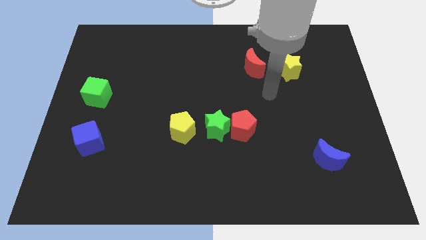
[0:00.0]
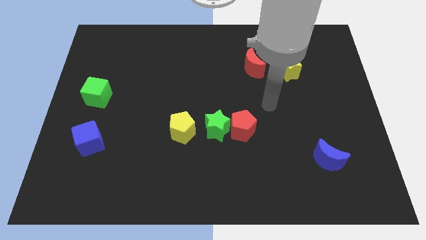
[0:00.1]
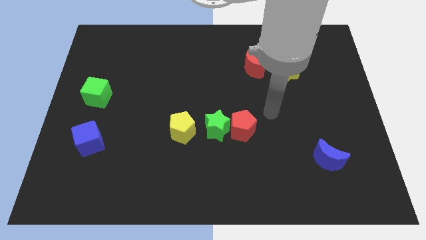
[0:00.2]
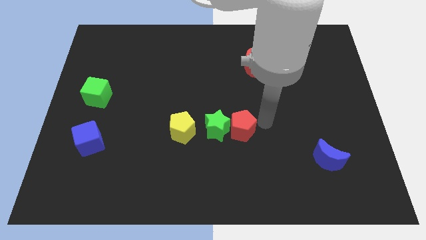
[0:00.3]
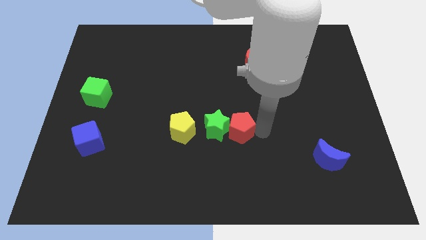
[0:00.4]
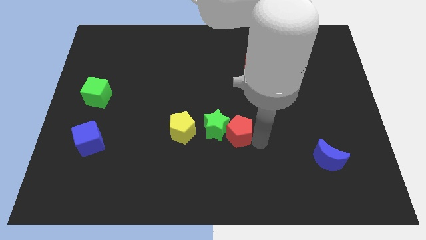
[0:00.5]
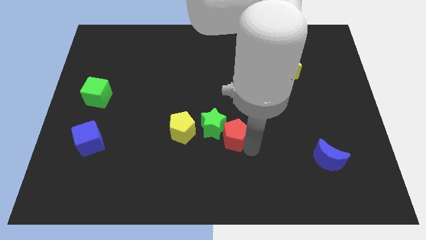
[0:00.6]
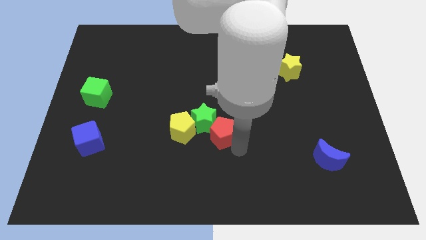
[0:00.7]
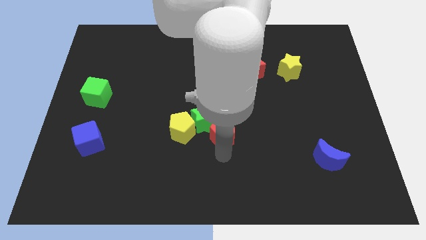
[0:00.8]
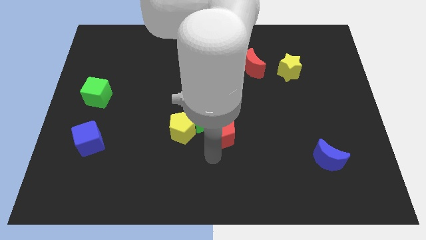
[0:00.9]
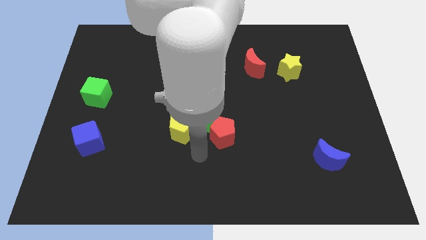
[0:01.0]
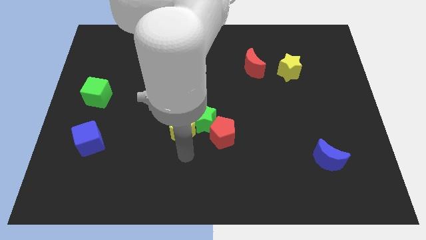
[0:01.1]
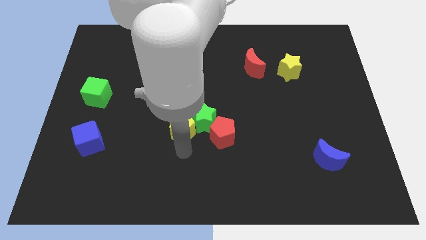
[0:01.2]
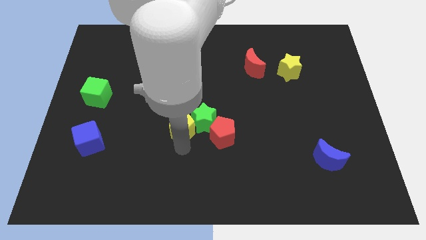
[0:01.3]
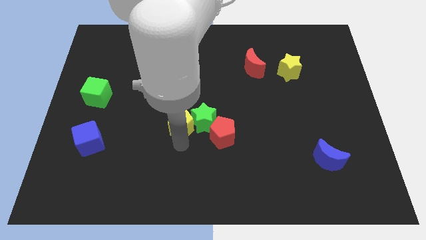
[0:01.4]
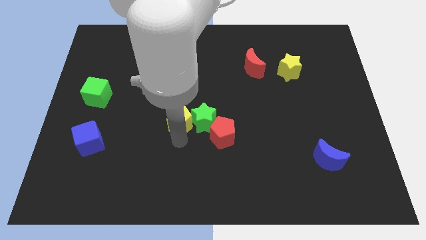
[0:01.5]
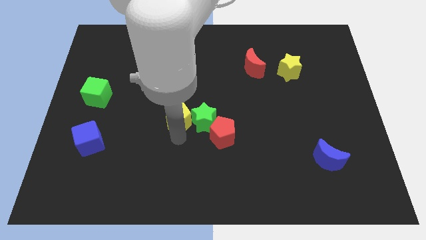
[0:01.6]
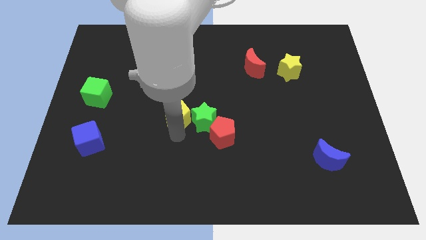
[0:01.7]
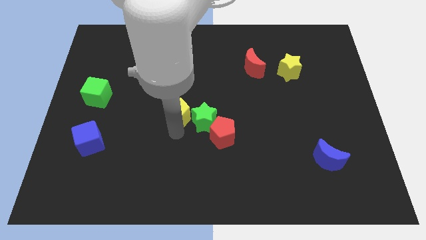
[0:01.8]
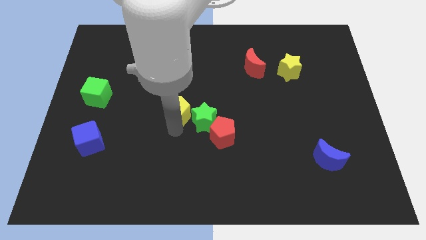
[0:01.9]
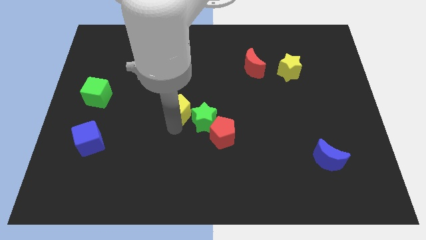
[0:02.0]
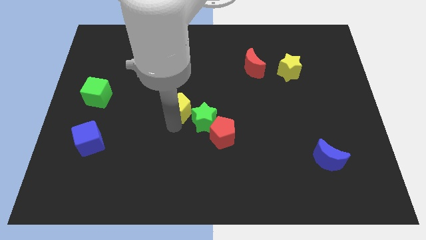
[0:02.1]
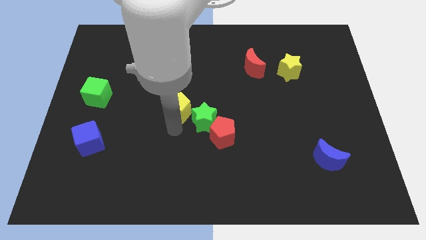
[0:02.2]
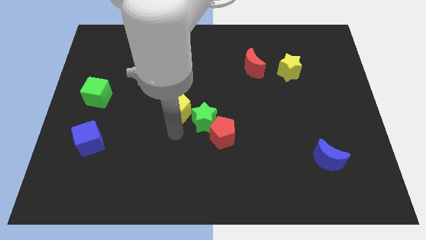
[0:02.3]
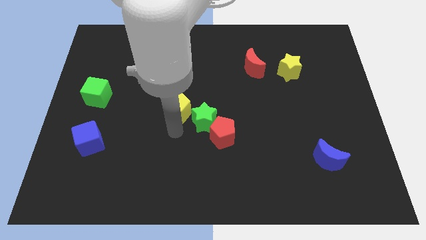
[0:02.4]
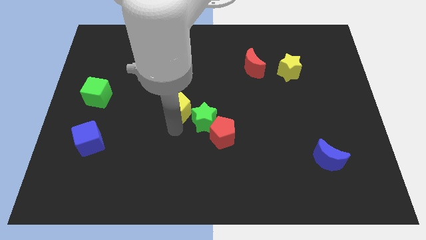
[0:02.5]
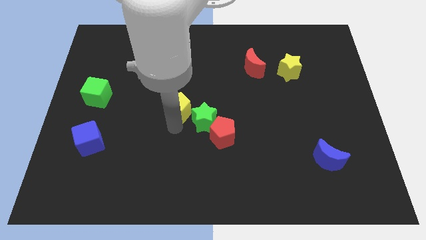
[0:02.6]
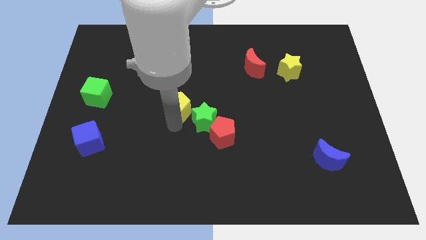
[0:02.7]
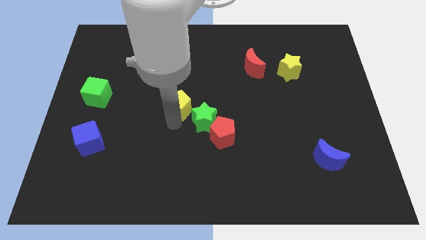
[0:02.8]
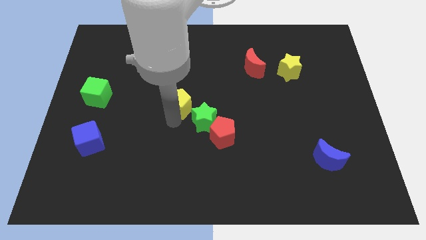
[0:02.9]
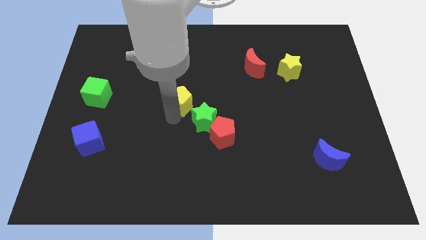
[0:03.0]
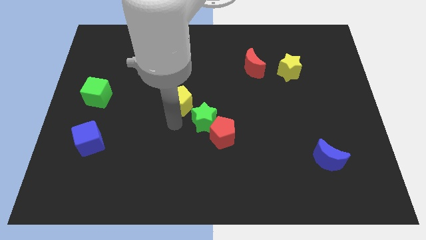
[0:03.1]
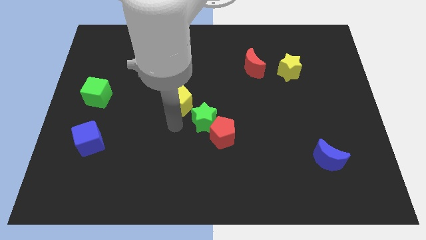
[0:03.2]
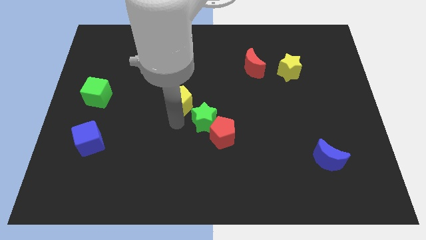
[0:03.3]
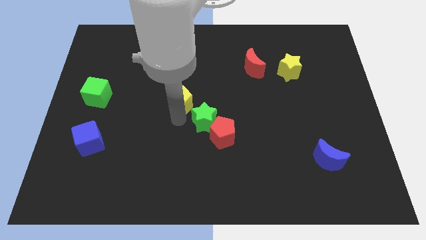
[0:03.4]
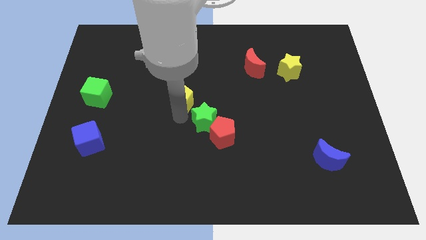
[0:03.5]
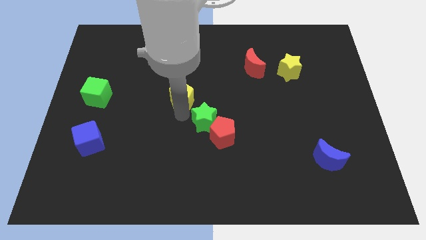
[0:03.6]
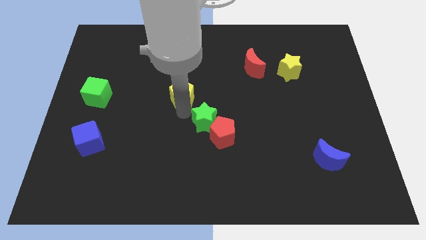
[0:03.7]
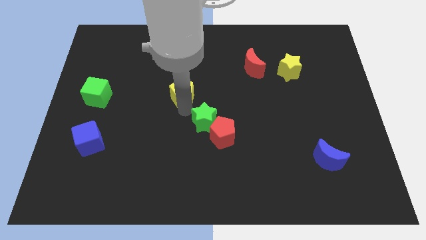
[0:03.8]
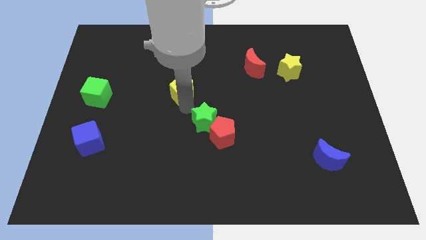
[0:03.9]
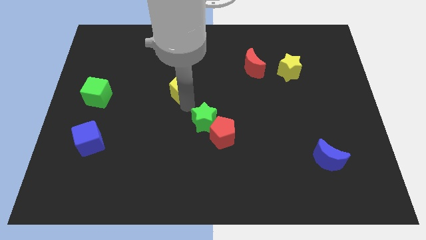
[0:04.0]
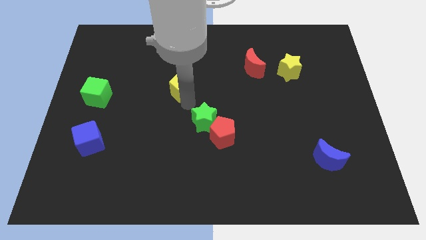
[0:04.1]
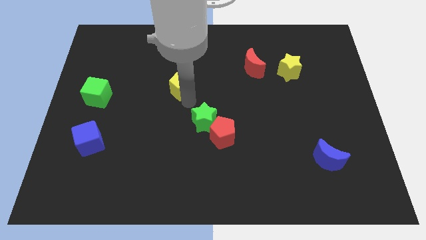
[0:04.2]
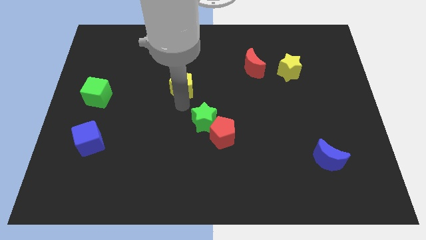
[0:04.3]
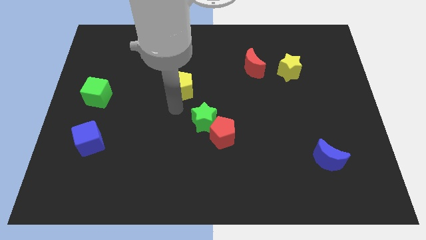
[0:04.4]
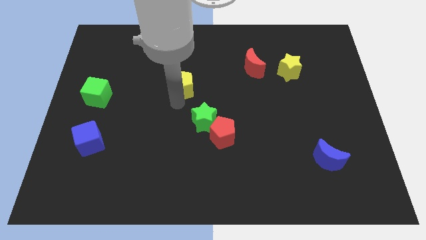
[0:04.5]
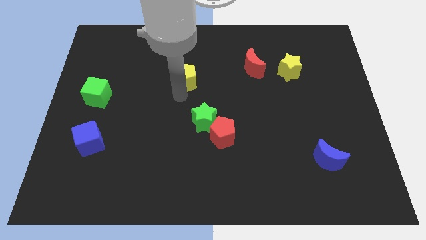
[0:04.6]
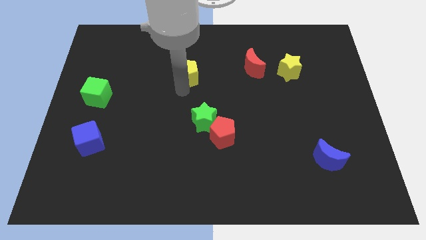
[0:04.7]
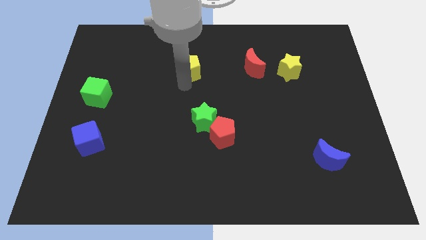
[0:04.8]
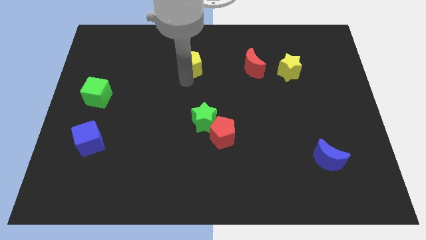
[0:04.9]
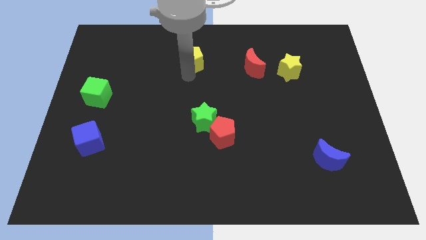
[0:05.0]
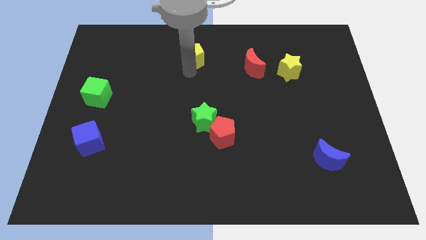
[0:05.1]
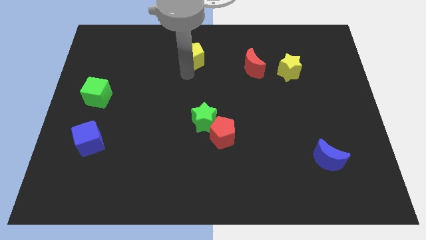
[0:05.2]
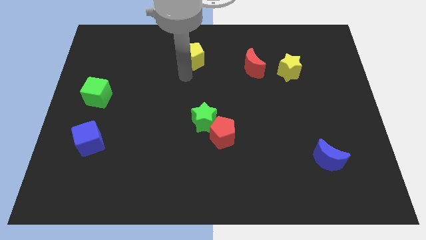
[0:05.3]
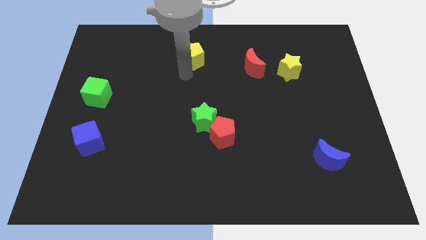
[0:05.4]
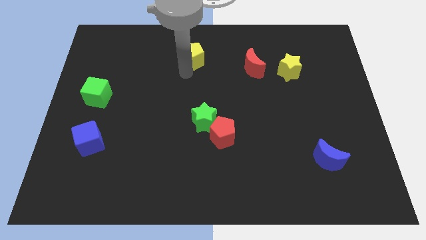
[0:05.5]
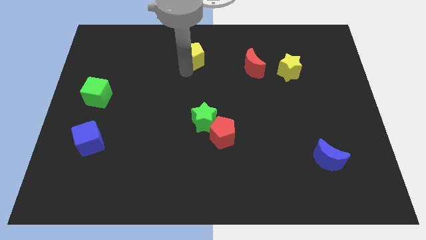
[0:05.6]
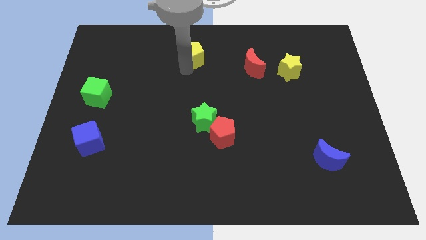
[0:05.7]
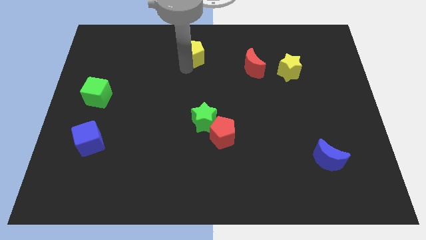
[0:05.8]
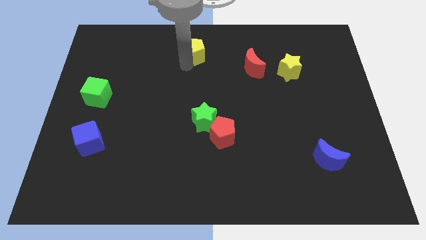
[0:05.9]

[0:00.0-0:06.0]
put the yellow pentagon to the top side
